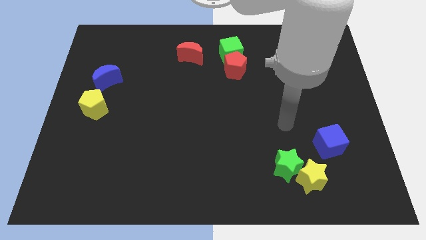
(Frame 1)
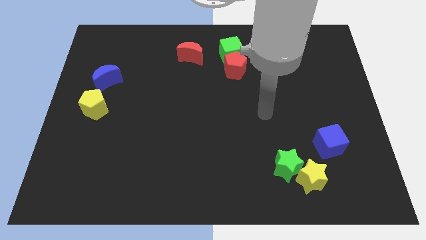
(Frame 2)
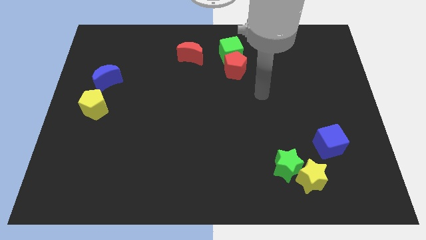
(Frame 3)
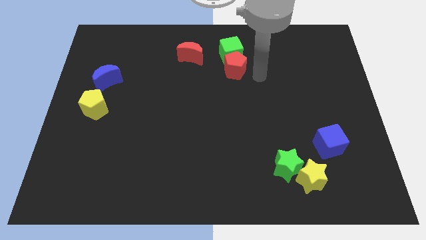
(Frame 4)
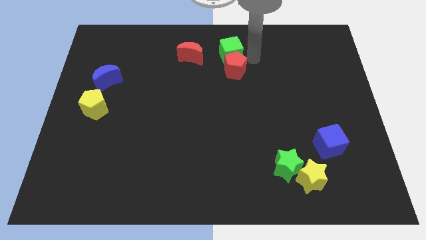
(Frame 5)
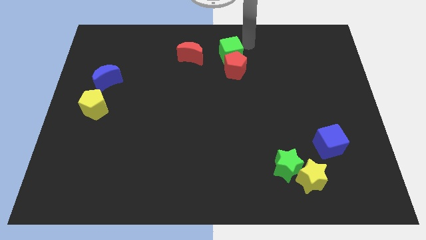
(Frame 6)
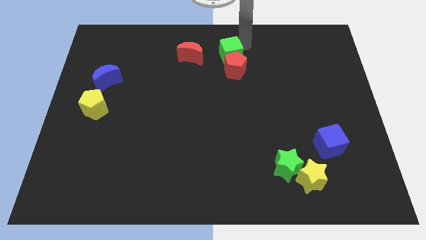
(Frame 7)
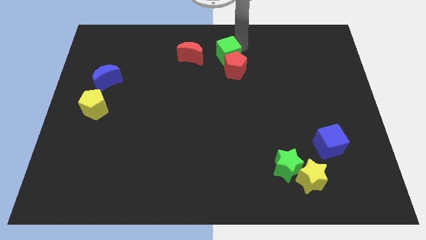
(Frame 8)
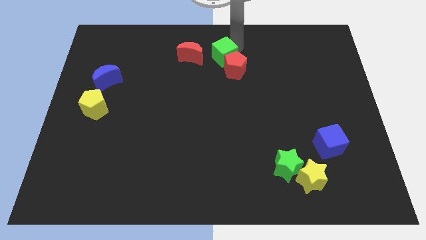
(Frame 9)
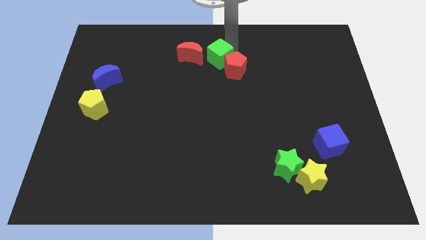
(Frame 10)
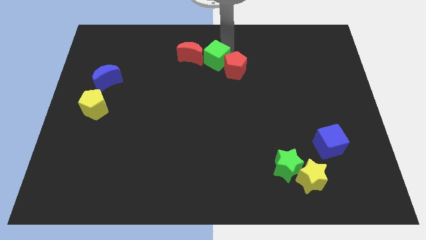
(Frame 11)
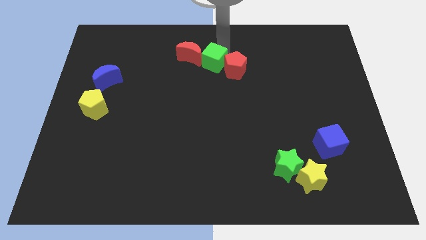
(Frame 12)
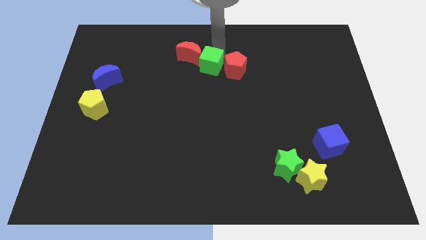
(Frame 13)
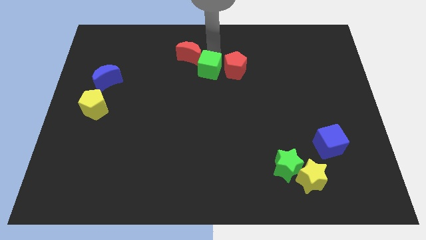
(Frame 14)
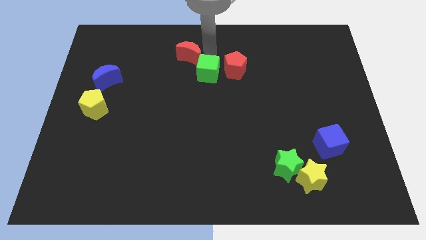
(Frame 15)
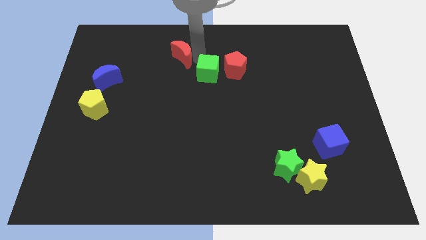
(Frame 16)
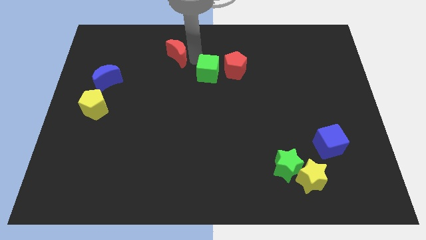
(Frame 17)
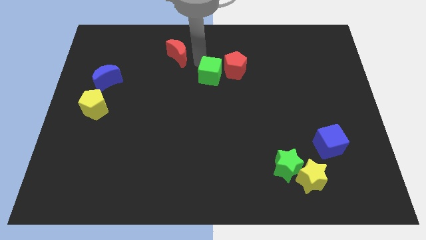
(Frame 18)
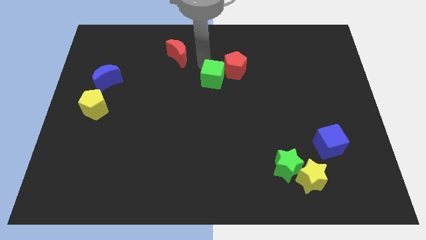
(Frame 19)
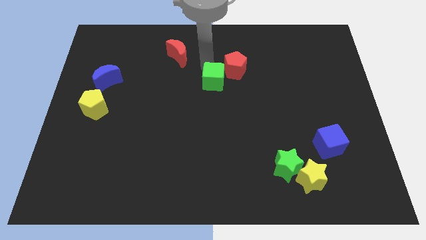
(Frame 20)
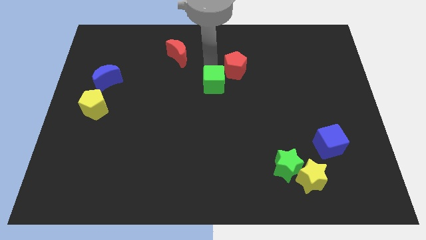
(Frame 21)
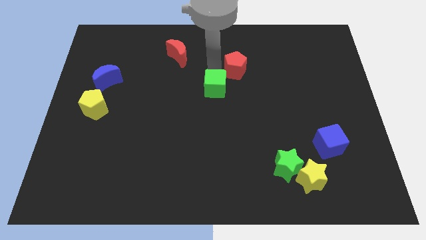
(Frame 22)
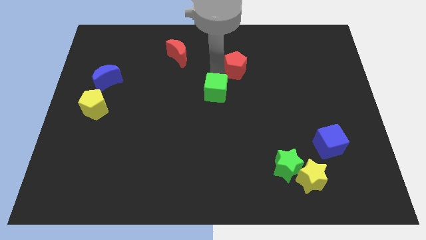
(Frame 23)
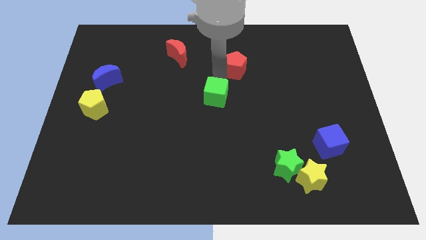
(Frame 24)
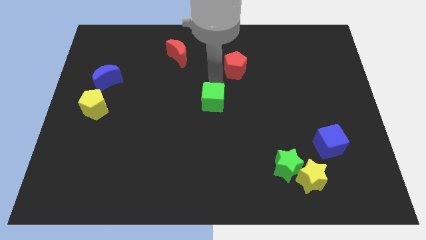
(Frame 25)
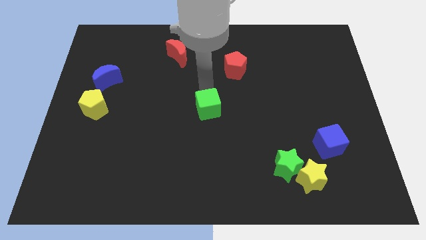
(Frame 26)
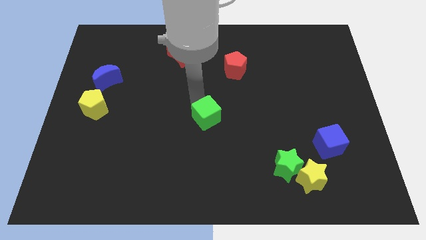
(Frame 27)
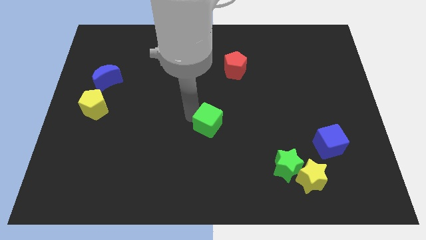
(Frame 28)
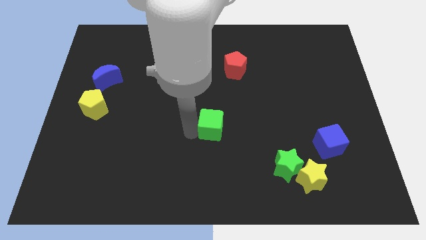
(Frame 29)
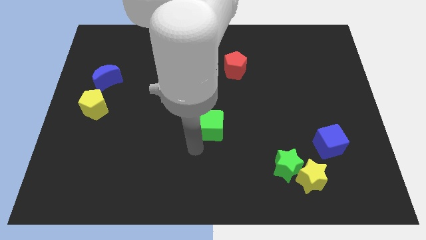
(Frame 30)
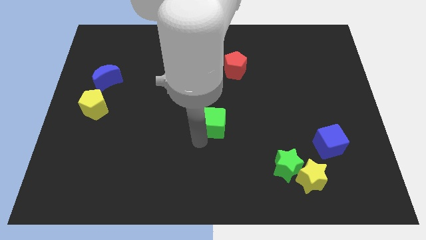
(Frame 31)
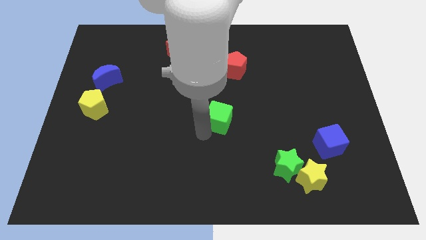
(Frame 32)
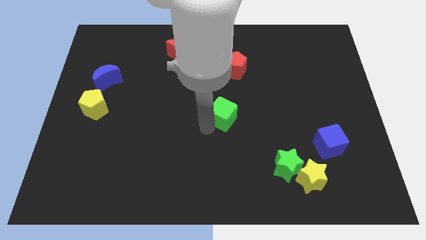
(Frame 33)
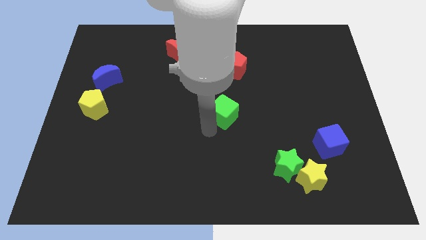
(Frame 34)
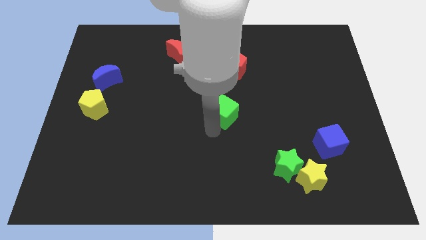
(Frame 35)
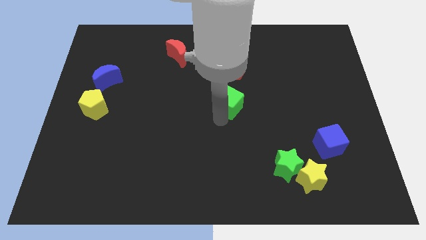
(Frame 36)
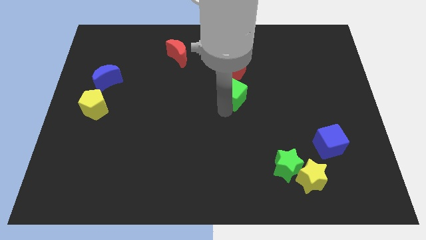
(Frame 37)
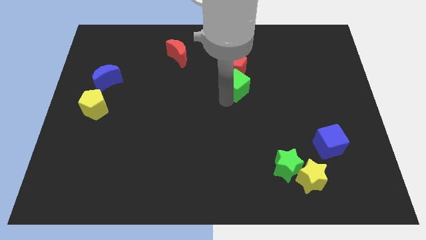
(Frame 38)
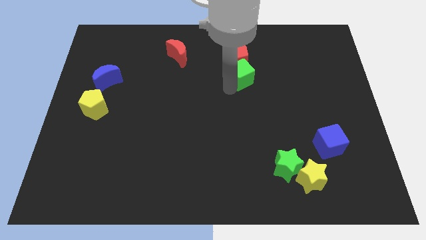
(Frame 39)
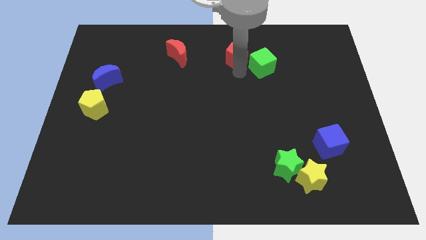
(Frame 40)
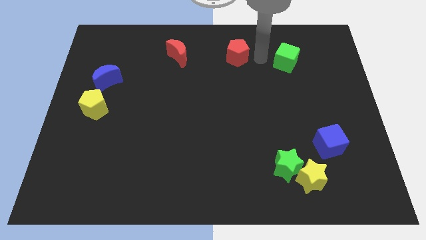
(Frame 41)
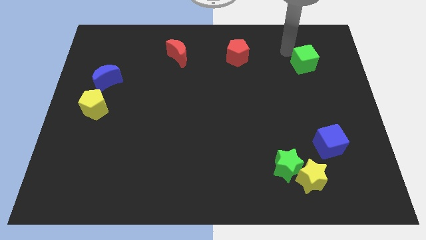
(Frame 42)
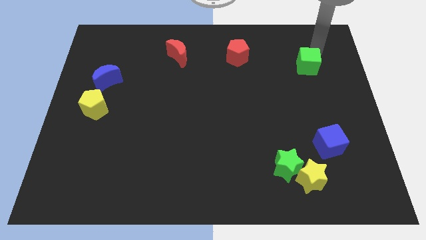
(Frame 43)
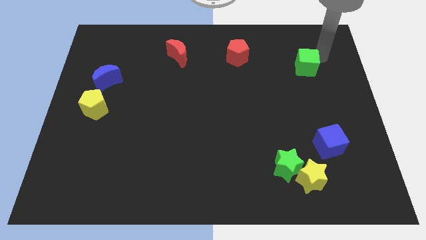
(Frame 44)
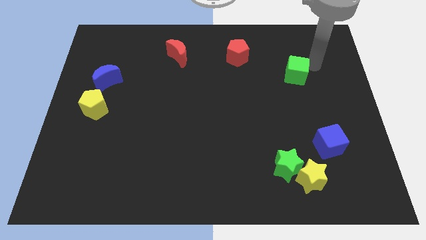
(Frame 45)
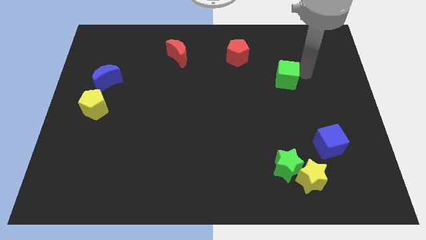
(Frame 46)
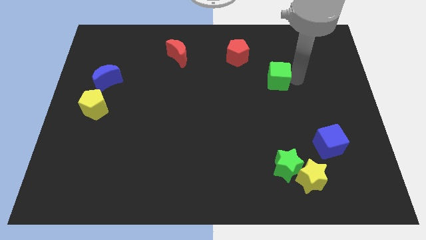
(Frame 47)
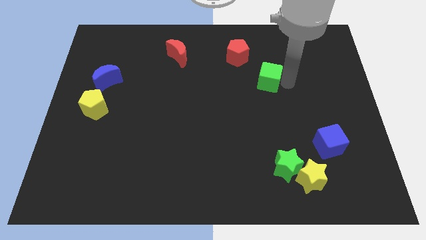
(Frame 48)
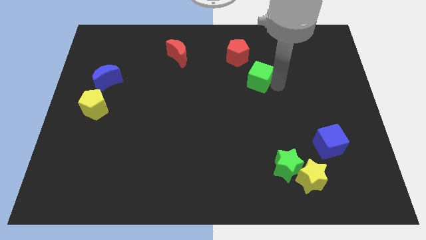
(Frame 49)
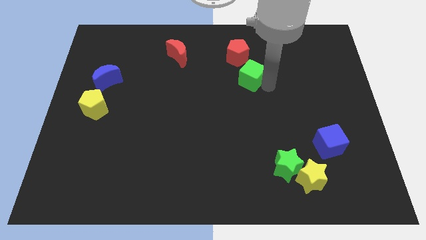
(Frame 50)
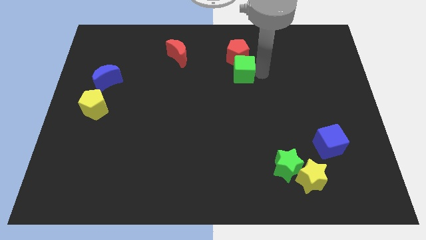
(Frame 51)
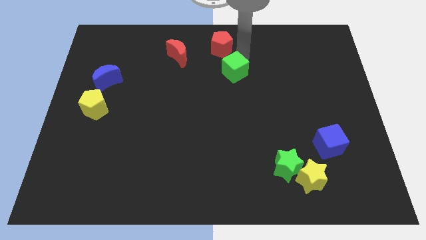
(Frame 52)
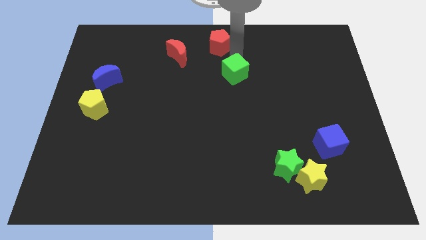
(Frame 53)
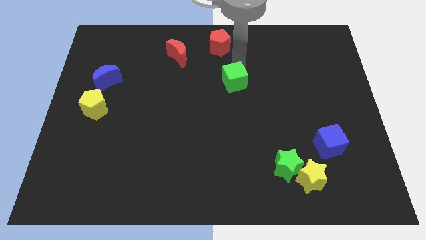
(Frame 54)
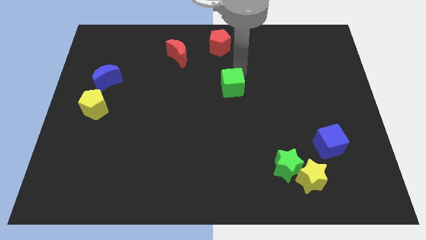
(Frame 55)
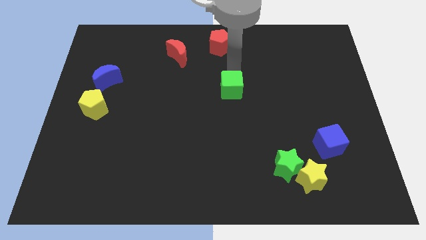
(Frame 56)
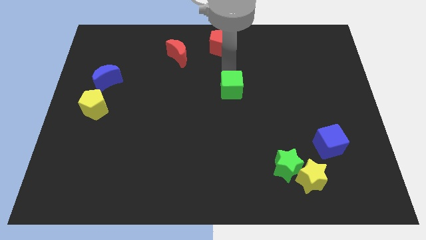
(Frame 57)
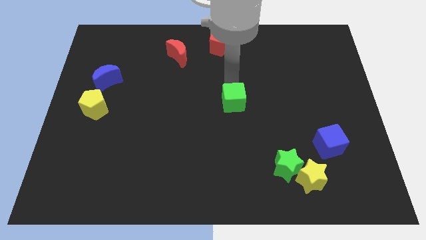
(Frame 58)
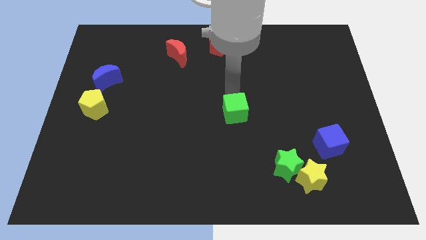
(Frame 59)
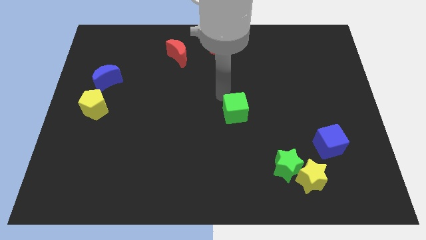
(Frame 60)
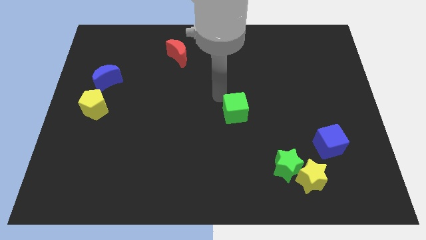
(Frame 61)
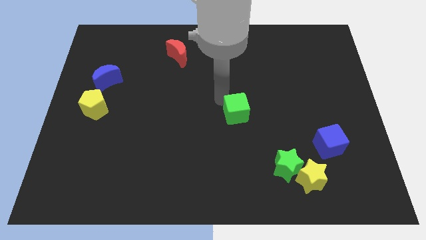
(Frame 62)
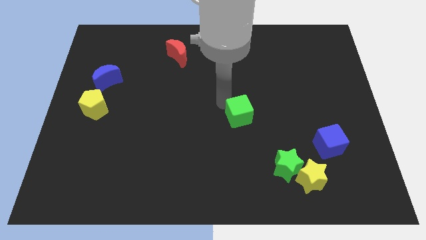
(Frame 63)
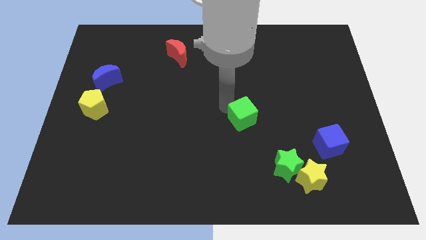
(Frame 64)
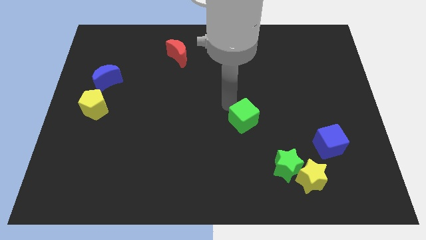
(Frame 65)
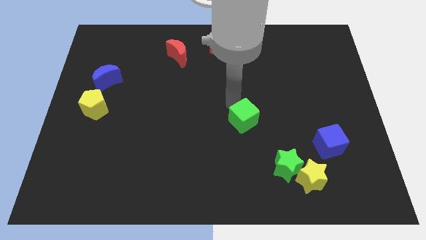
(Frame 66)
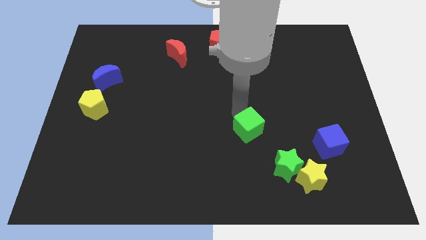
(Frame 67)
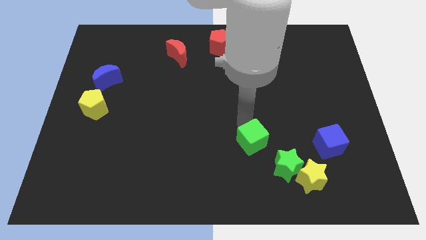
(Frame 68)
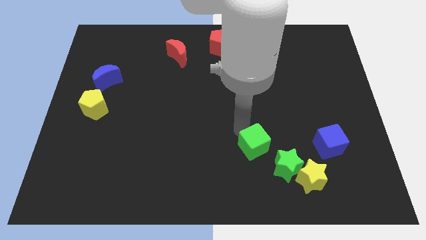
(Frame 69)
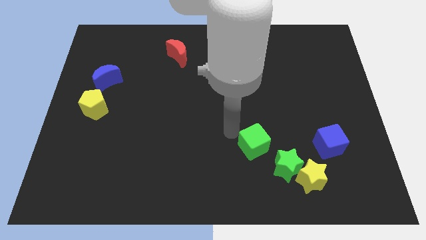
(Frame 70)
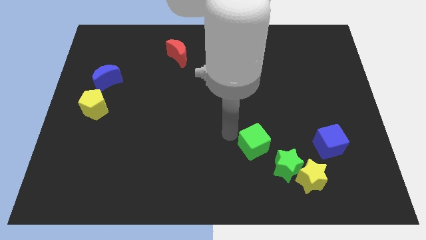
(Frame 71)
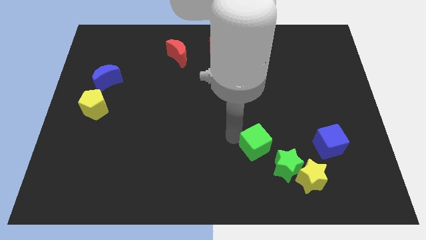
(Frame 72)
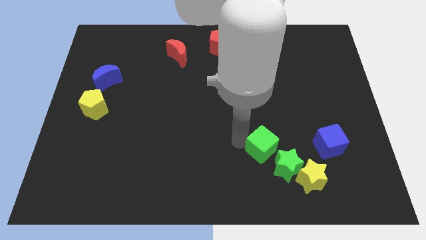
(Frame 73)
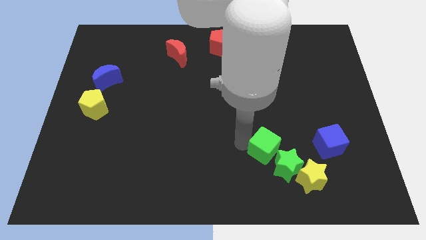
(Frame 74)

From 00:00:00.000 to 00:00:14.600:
push the green cube next to the green star
